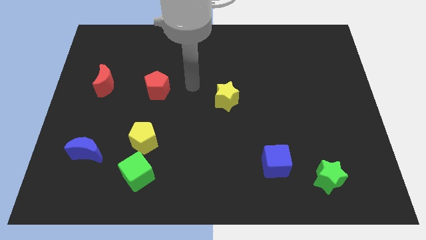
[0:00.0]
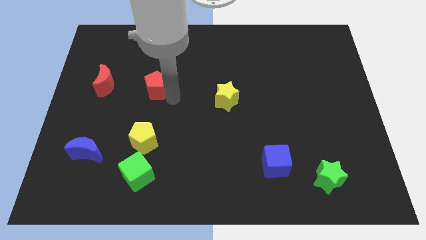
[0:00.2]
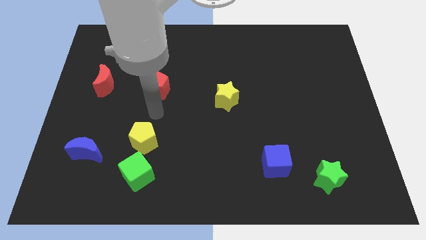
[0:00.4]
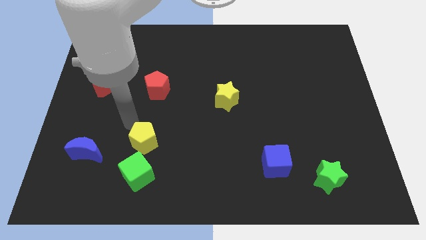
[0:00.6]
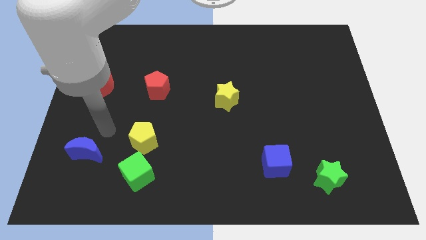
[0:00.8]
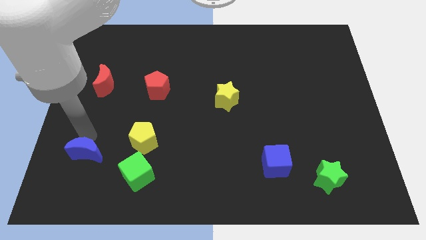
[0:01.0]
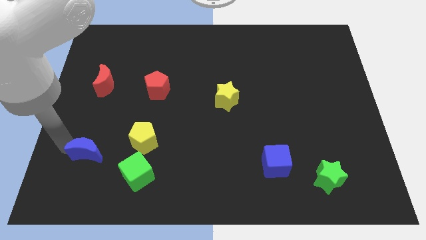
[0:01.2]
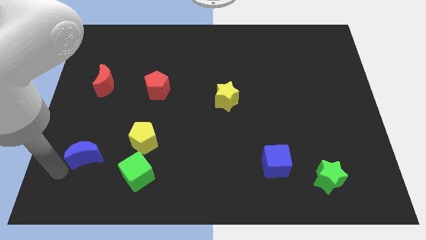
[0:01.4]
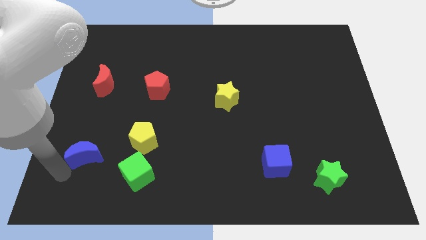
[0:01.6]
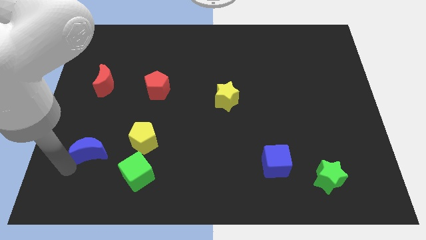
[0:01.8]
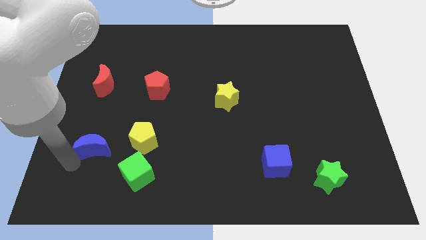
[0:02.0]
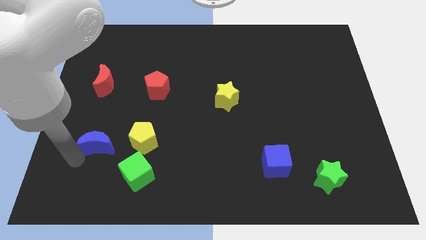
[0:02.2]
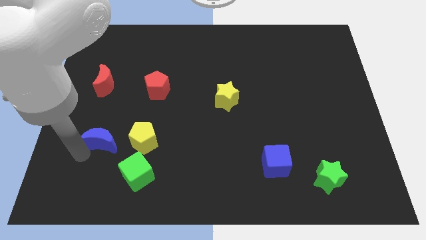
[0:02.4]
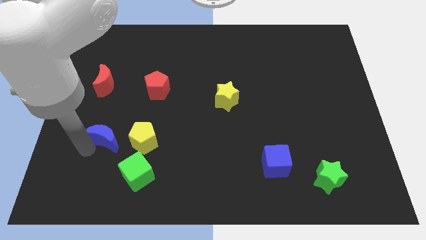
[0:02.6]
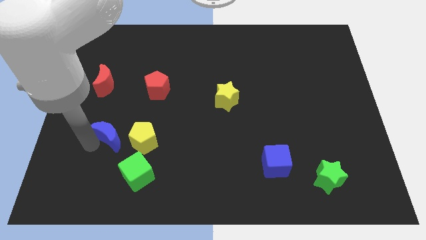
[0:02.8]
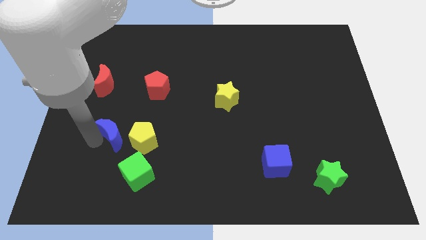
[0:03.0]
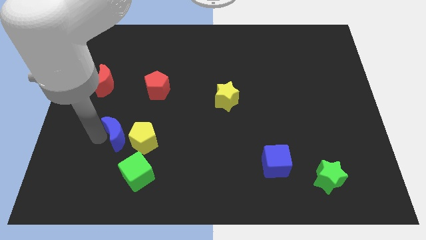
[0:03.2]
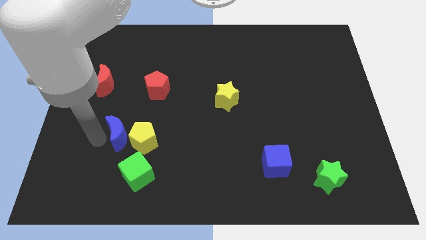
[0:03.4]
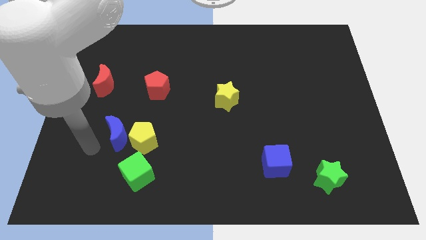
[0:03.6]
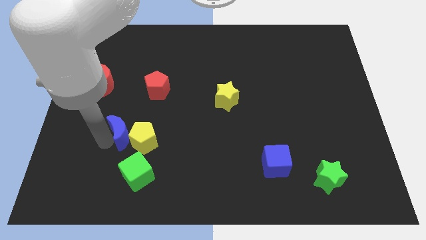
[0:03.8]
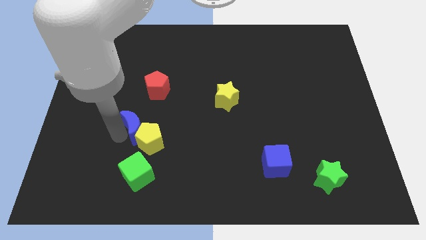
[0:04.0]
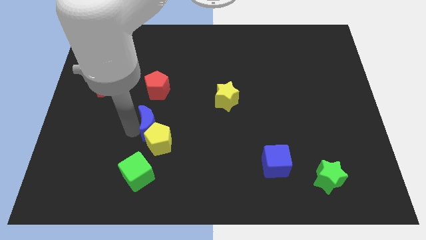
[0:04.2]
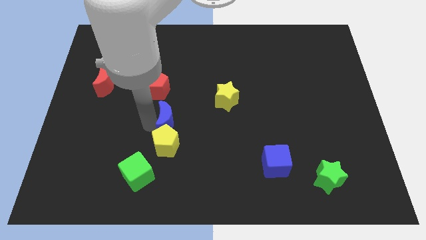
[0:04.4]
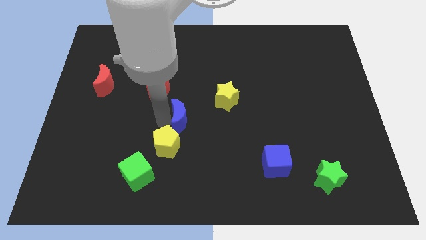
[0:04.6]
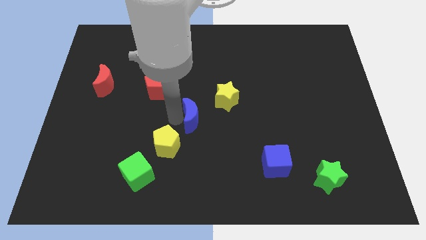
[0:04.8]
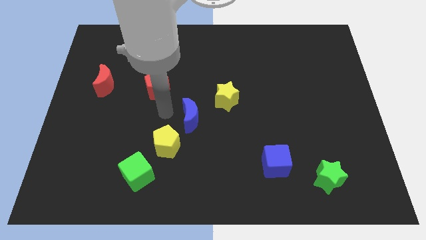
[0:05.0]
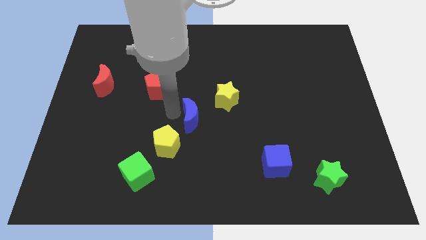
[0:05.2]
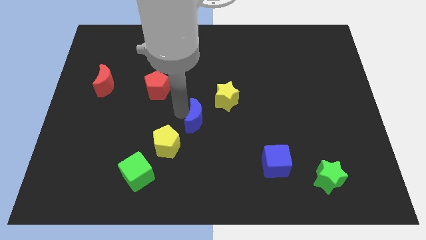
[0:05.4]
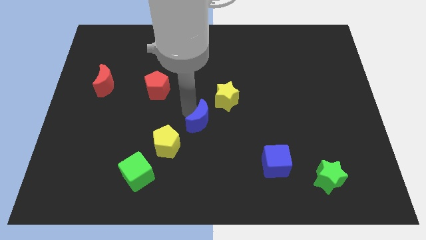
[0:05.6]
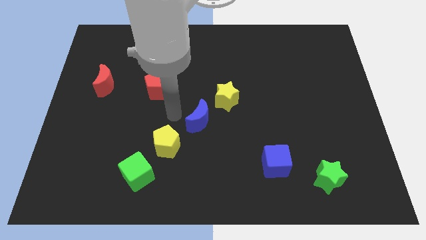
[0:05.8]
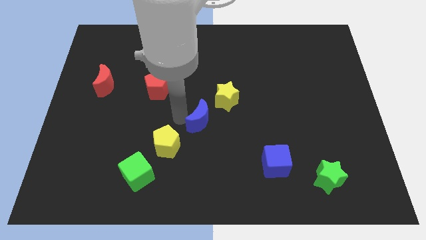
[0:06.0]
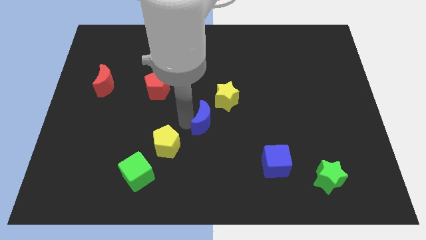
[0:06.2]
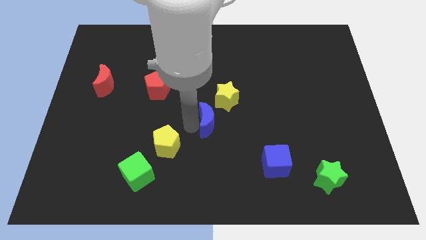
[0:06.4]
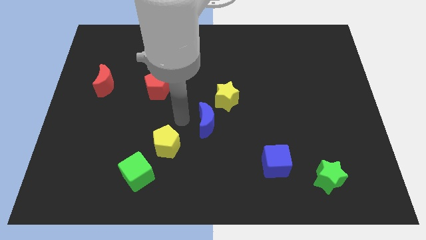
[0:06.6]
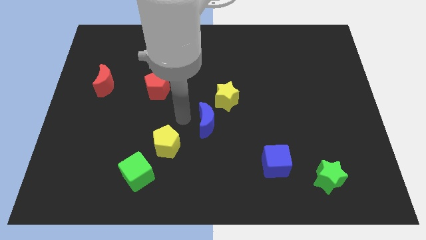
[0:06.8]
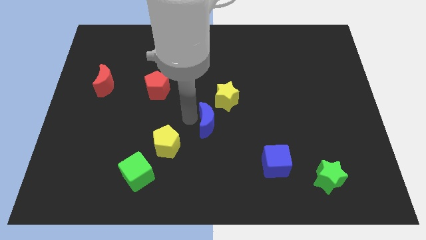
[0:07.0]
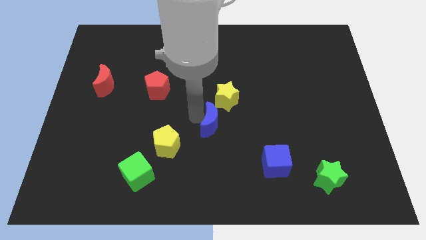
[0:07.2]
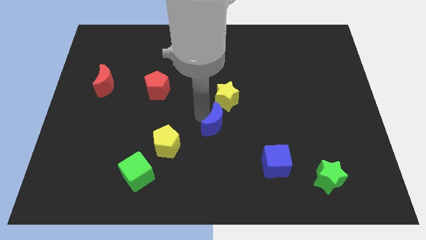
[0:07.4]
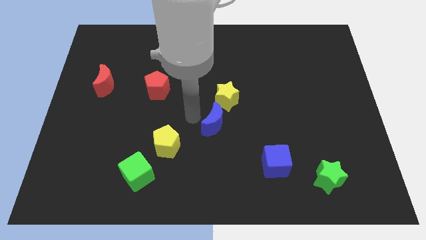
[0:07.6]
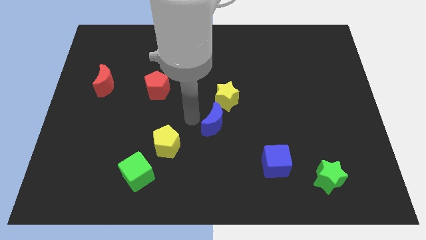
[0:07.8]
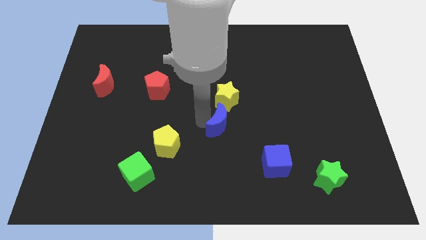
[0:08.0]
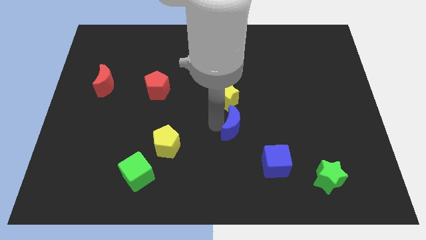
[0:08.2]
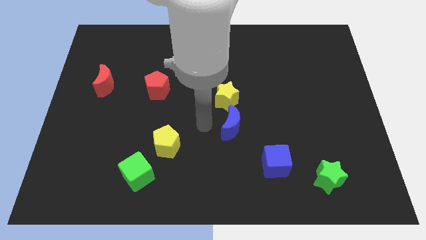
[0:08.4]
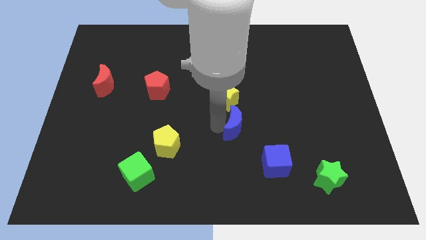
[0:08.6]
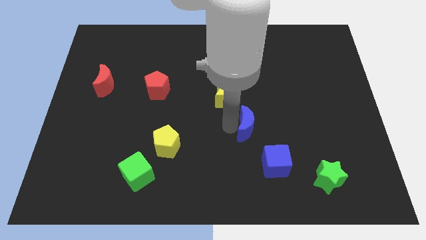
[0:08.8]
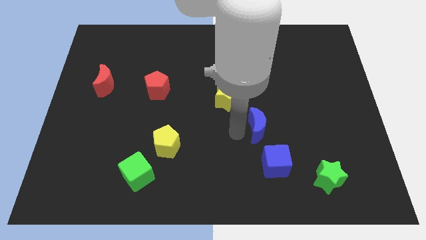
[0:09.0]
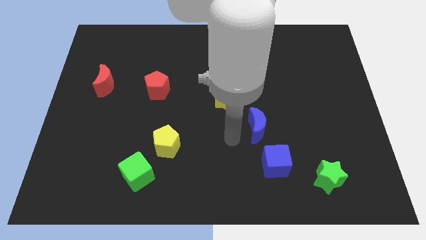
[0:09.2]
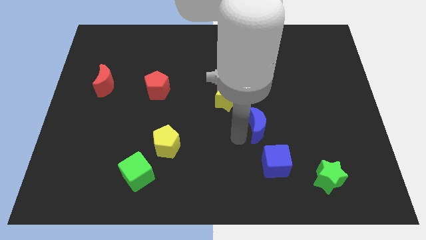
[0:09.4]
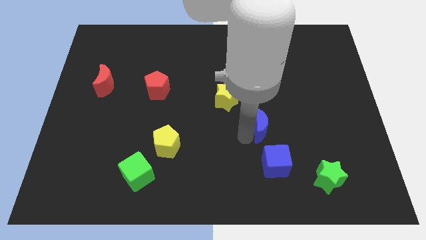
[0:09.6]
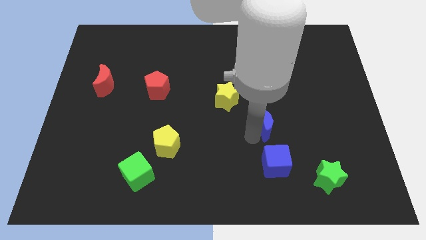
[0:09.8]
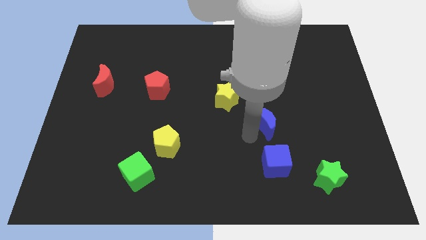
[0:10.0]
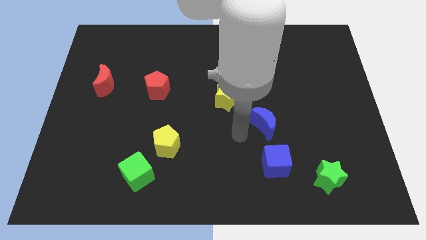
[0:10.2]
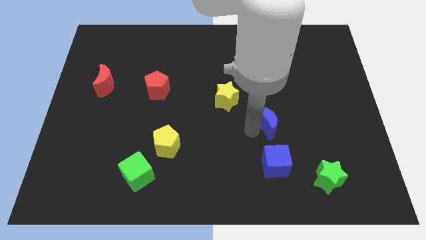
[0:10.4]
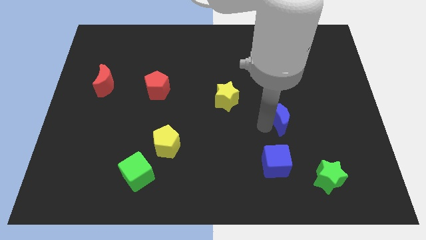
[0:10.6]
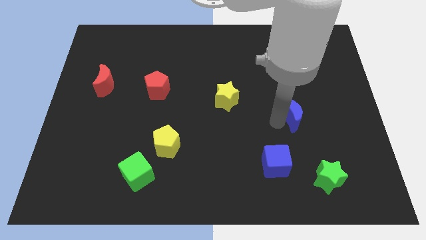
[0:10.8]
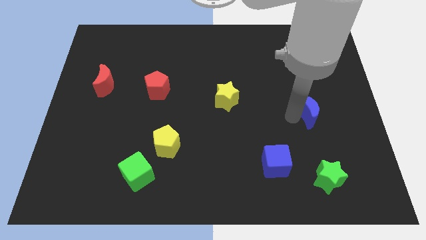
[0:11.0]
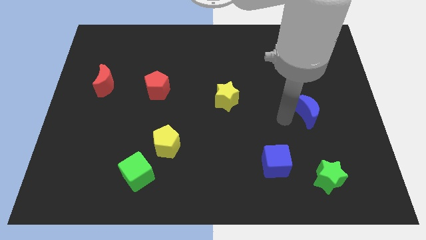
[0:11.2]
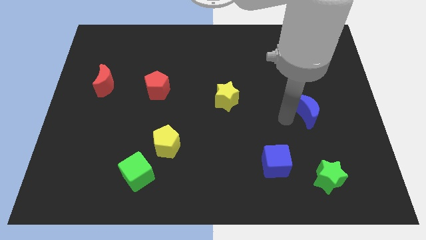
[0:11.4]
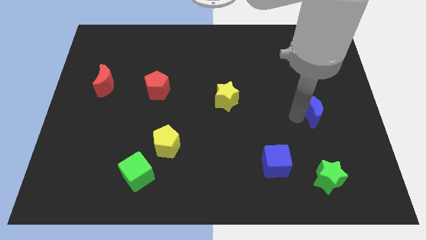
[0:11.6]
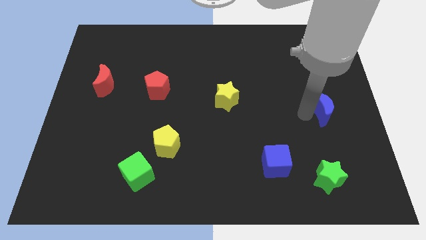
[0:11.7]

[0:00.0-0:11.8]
put the blue moon to the right side of the board
